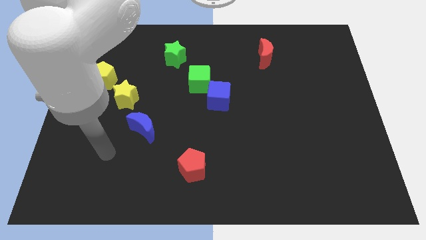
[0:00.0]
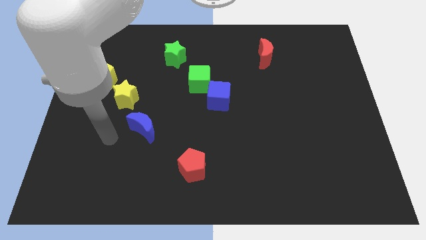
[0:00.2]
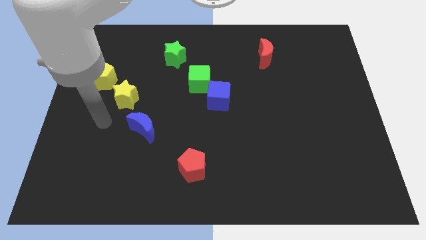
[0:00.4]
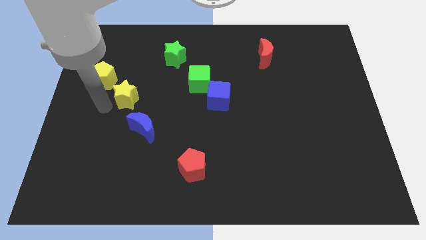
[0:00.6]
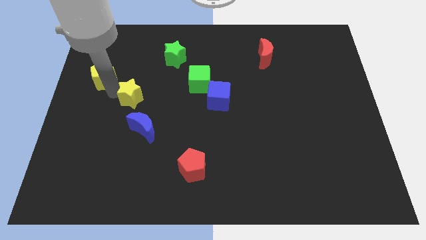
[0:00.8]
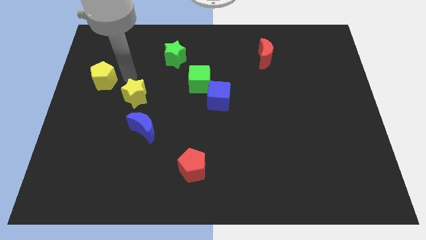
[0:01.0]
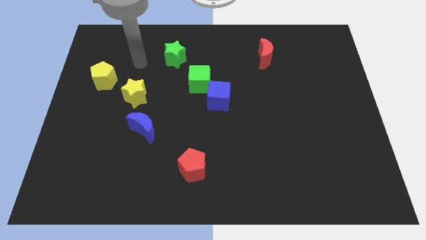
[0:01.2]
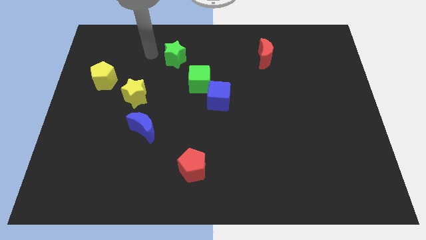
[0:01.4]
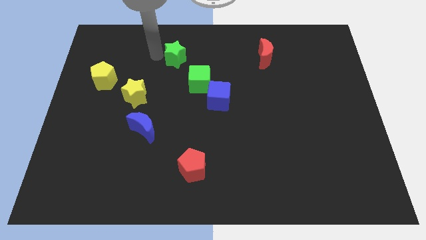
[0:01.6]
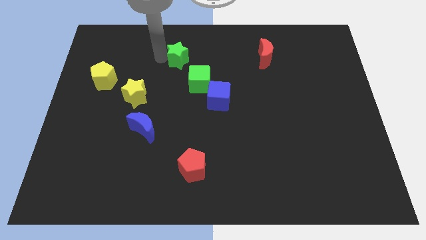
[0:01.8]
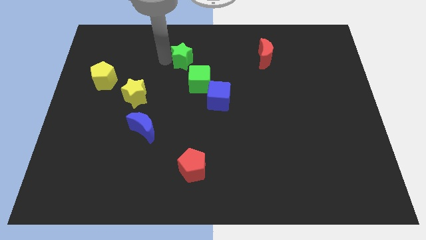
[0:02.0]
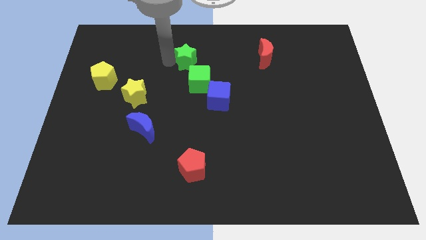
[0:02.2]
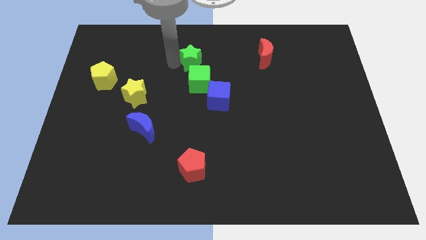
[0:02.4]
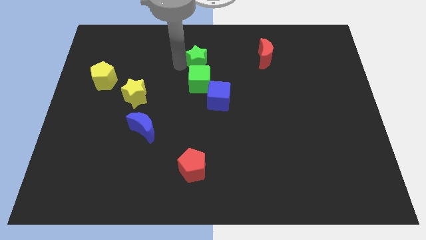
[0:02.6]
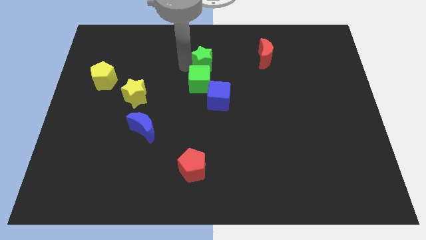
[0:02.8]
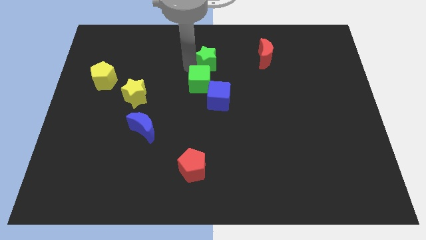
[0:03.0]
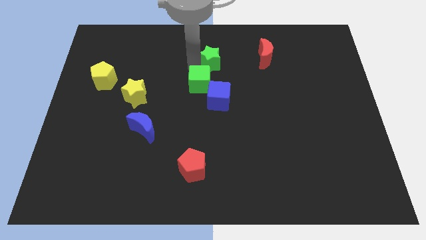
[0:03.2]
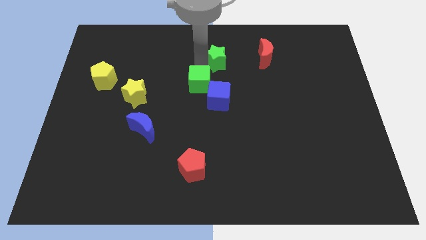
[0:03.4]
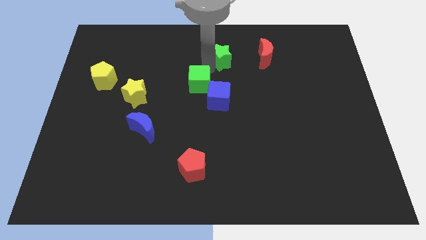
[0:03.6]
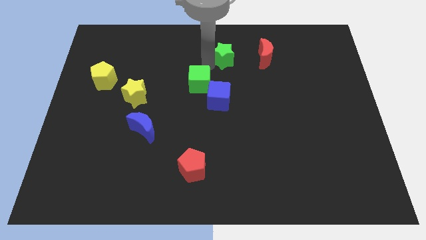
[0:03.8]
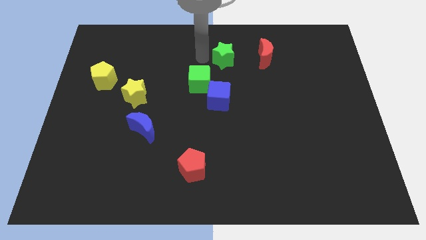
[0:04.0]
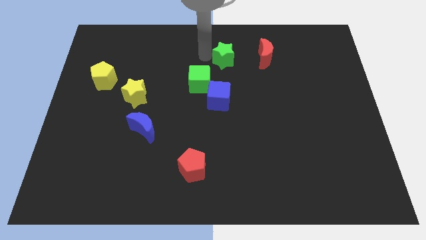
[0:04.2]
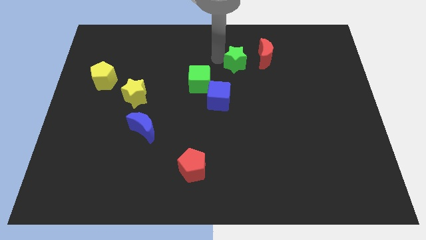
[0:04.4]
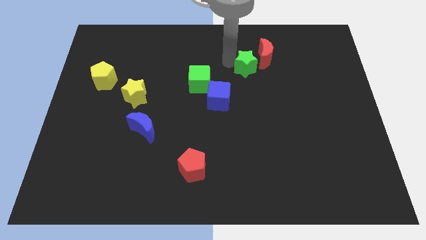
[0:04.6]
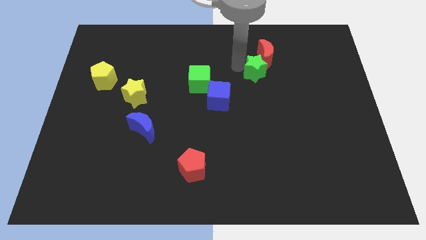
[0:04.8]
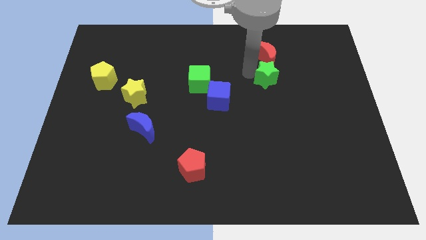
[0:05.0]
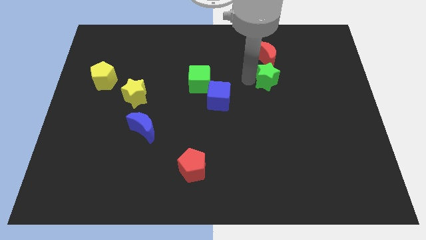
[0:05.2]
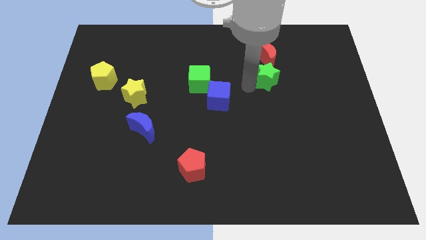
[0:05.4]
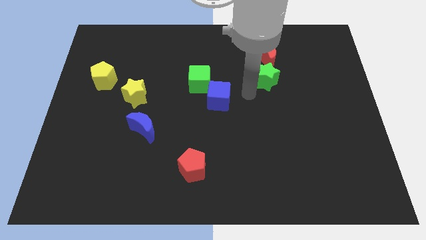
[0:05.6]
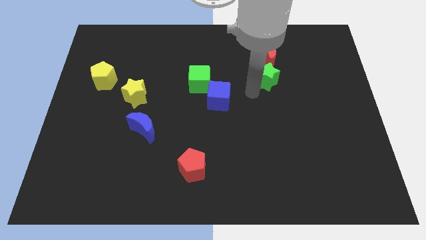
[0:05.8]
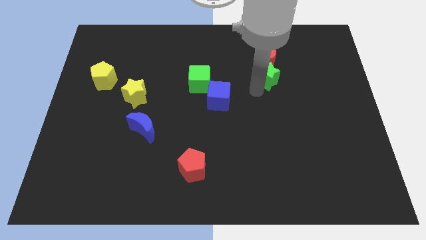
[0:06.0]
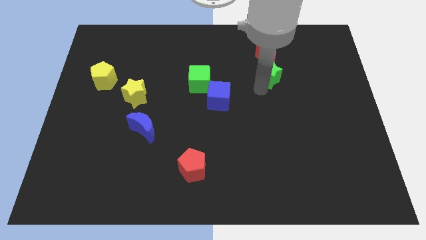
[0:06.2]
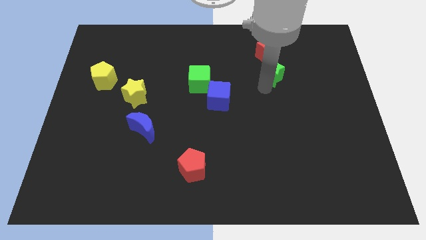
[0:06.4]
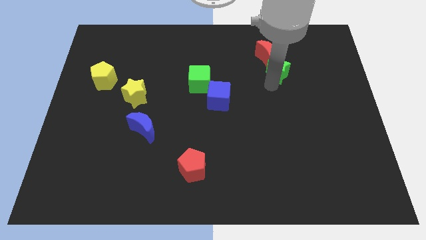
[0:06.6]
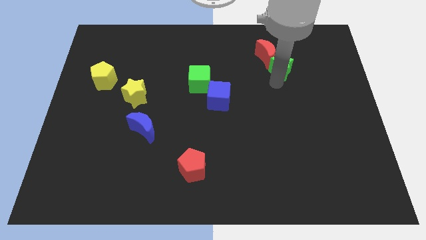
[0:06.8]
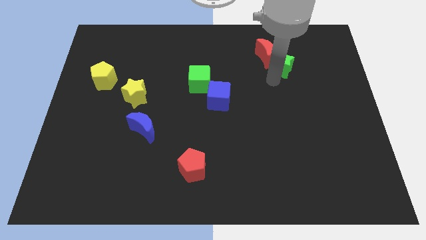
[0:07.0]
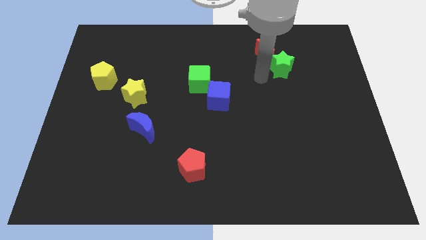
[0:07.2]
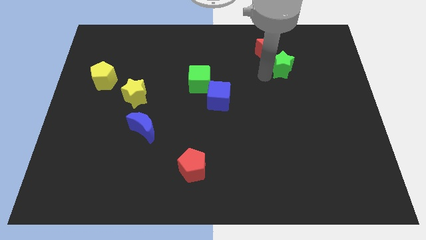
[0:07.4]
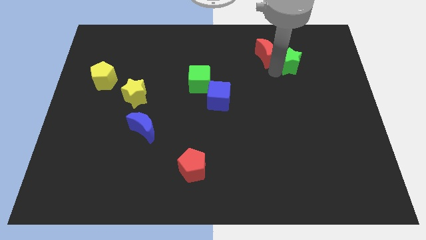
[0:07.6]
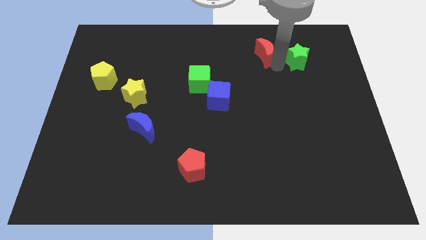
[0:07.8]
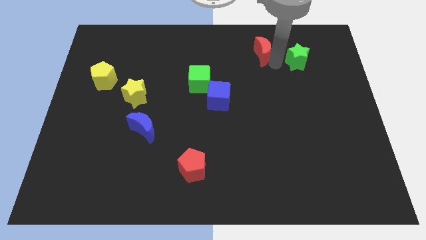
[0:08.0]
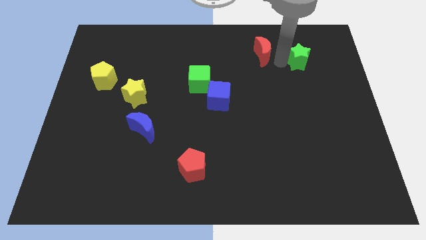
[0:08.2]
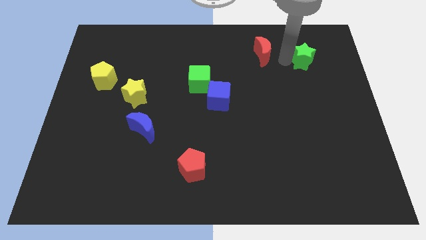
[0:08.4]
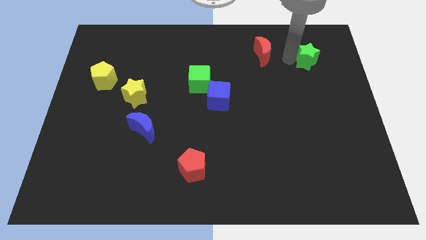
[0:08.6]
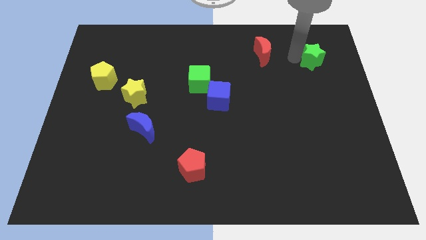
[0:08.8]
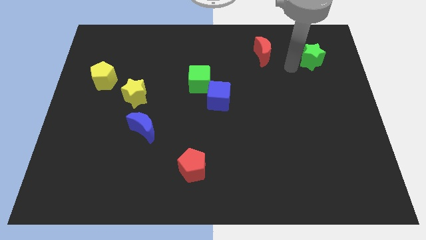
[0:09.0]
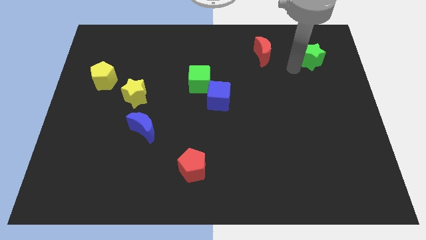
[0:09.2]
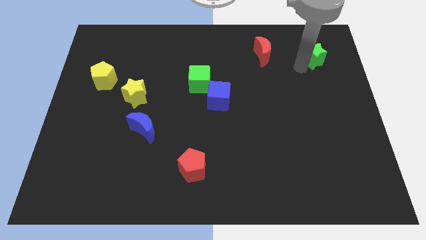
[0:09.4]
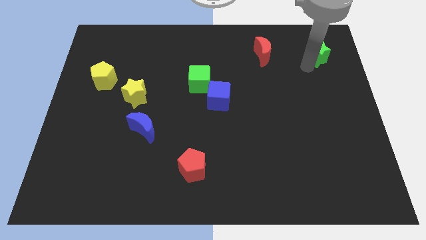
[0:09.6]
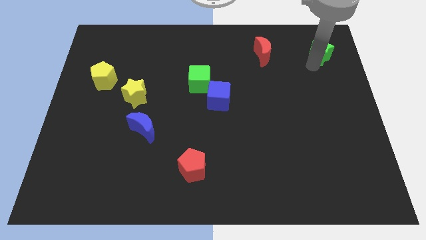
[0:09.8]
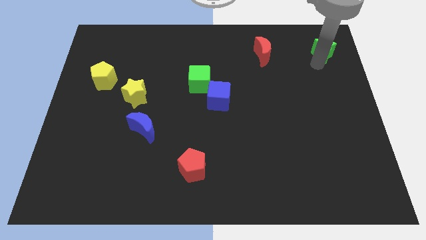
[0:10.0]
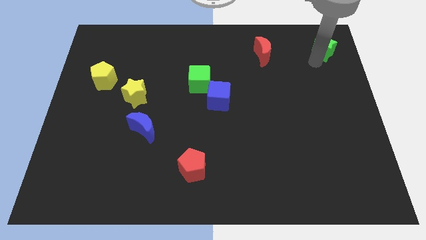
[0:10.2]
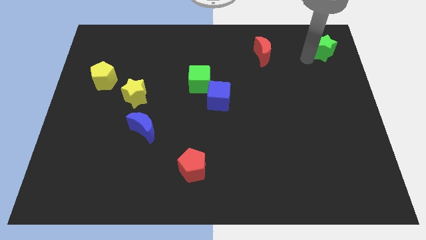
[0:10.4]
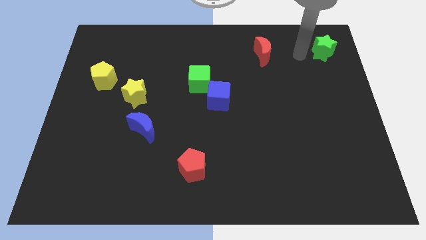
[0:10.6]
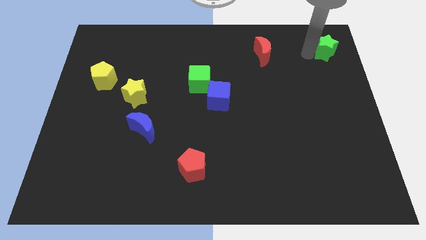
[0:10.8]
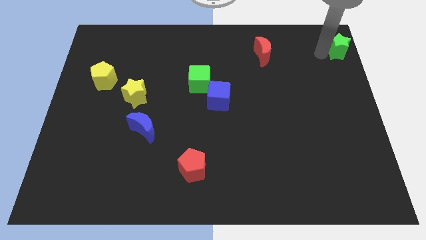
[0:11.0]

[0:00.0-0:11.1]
move the green star to the top right

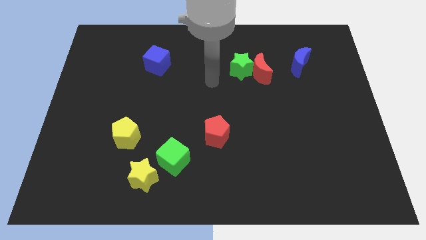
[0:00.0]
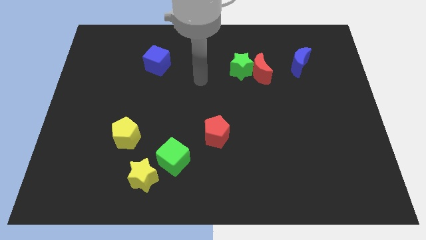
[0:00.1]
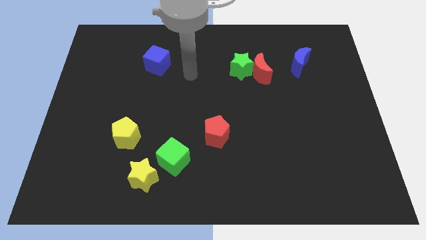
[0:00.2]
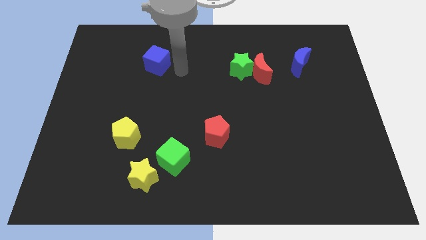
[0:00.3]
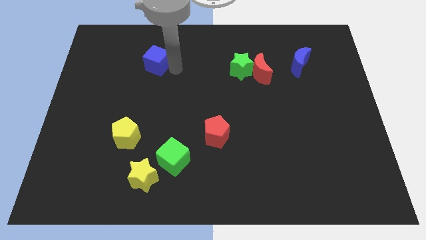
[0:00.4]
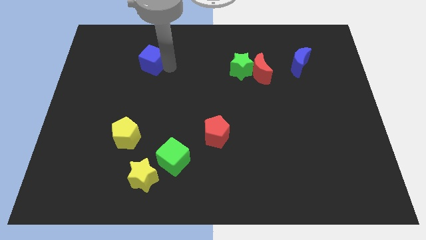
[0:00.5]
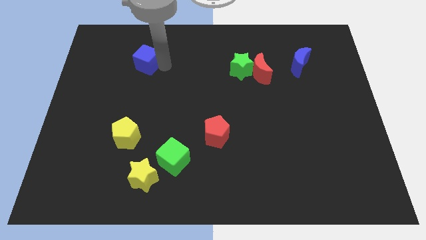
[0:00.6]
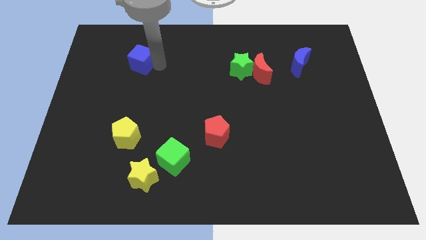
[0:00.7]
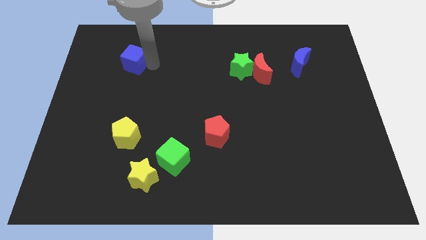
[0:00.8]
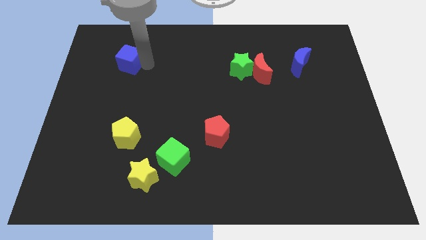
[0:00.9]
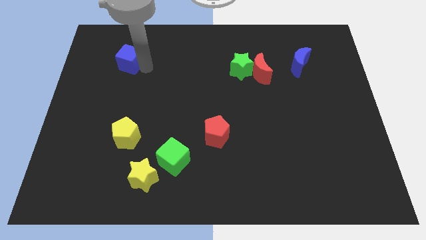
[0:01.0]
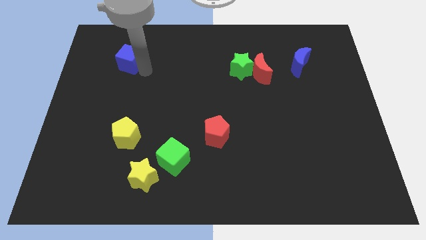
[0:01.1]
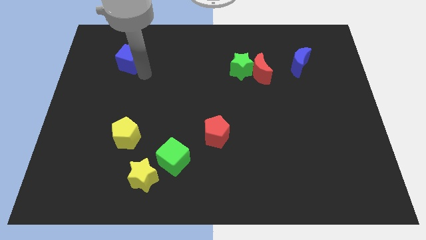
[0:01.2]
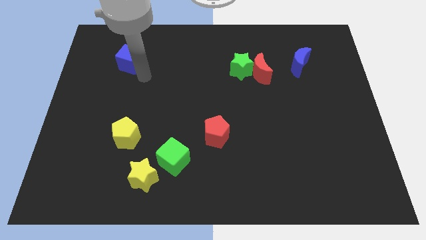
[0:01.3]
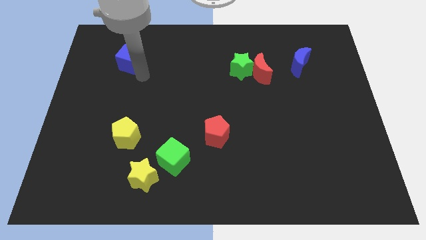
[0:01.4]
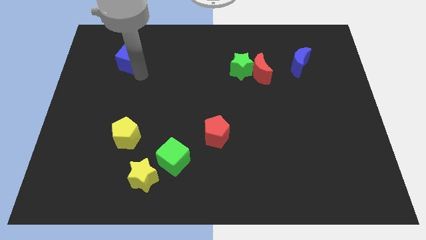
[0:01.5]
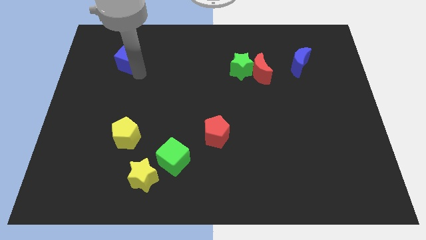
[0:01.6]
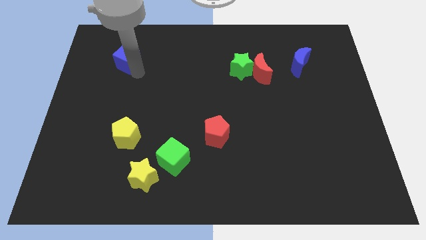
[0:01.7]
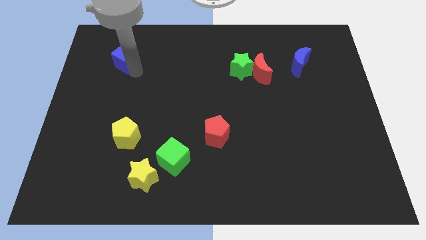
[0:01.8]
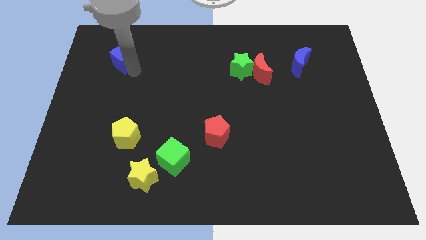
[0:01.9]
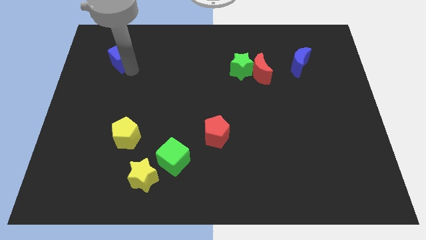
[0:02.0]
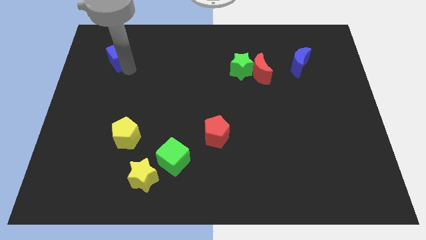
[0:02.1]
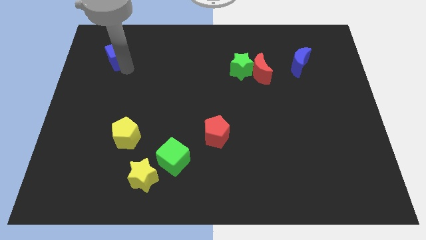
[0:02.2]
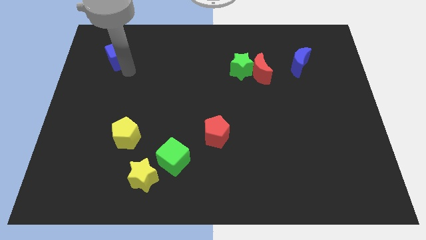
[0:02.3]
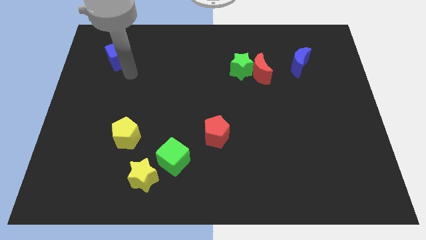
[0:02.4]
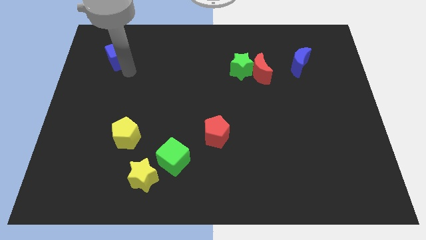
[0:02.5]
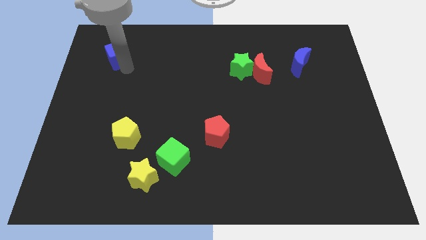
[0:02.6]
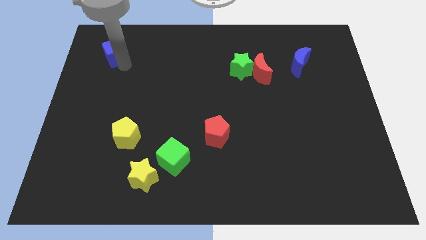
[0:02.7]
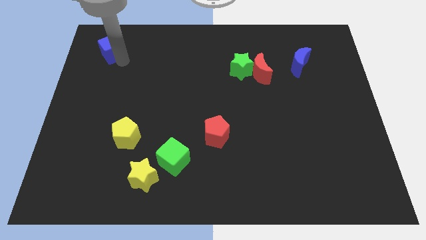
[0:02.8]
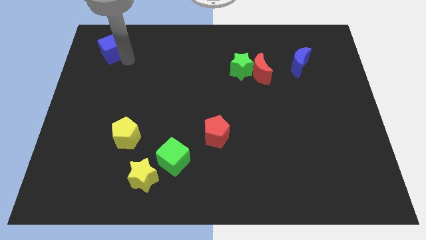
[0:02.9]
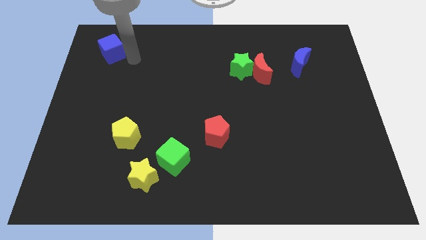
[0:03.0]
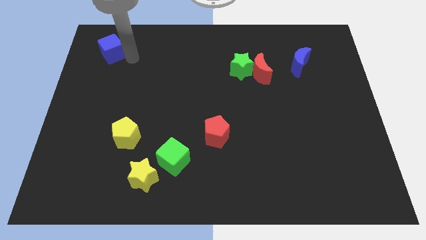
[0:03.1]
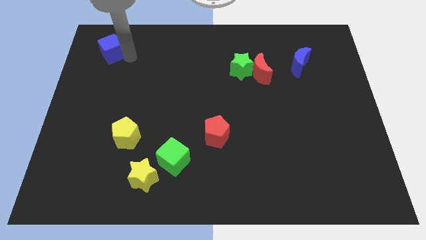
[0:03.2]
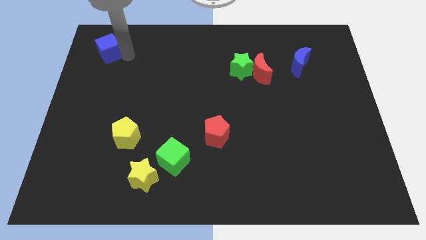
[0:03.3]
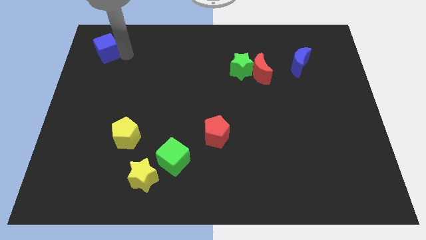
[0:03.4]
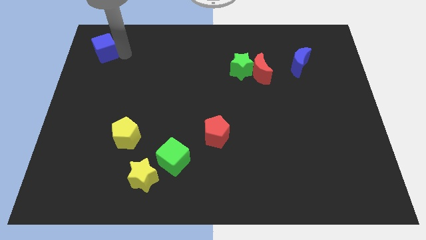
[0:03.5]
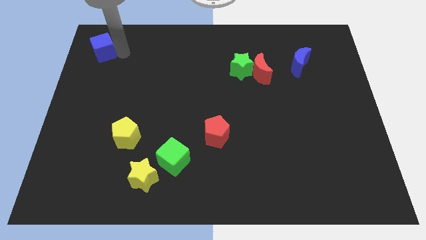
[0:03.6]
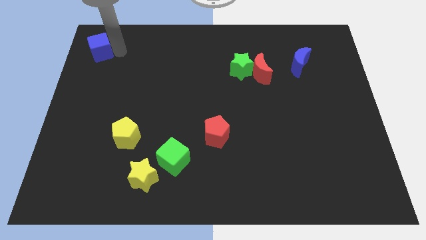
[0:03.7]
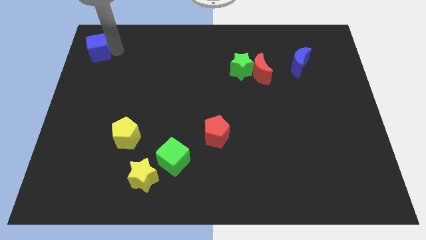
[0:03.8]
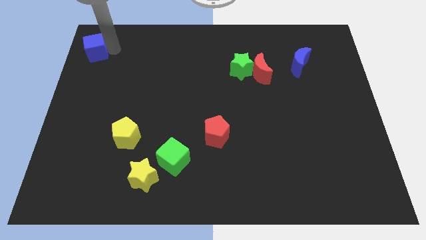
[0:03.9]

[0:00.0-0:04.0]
move the blue cube to the upper left corner
